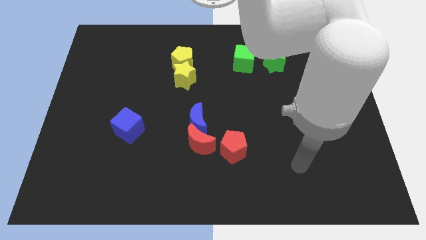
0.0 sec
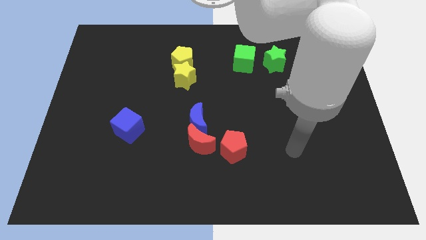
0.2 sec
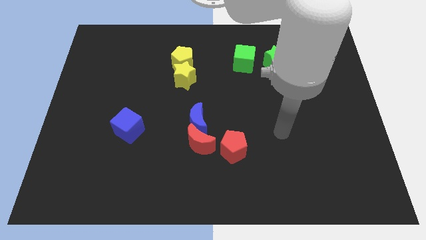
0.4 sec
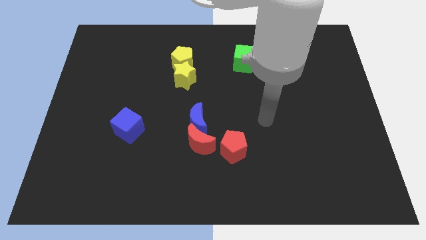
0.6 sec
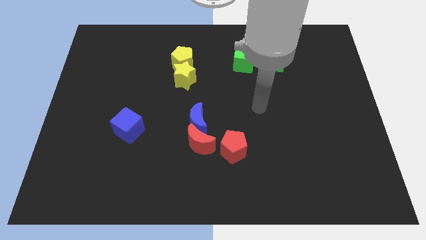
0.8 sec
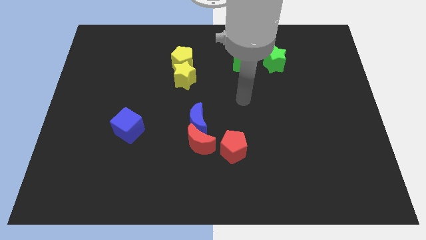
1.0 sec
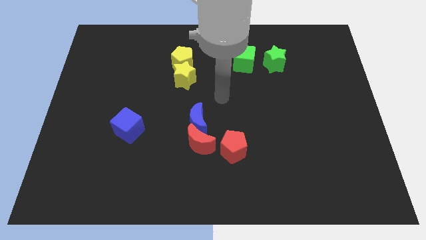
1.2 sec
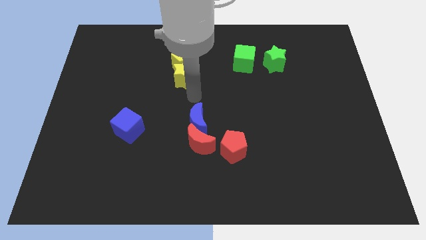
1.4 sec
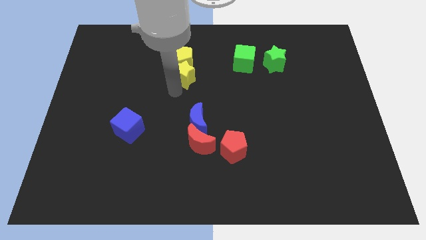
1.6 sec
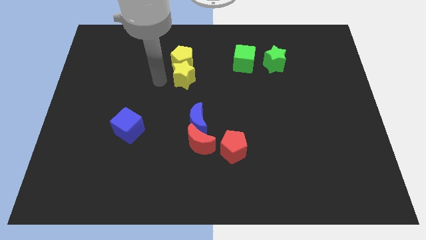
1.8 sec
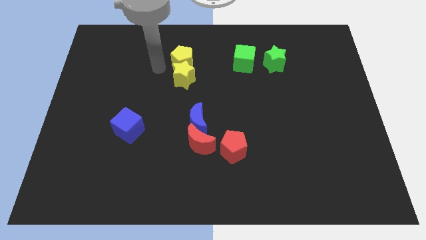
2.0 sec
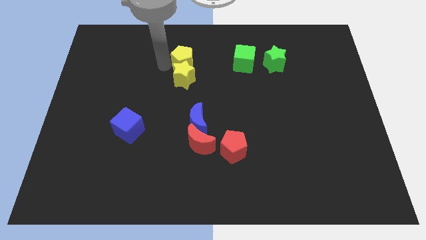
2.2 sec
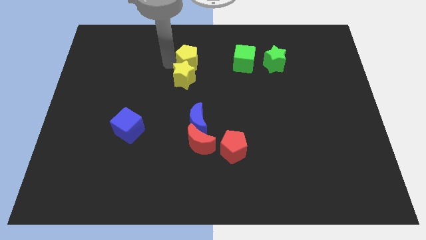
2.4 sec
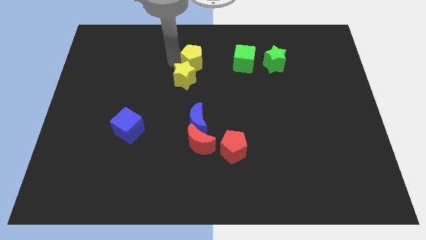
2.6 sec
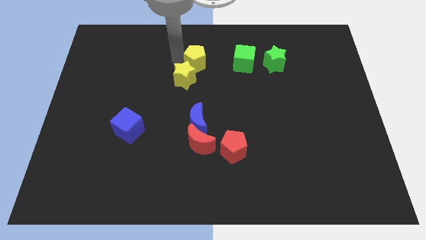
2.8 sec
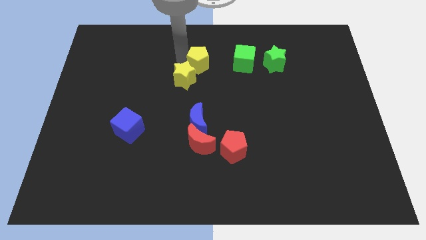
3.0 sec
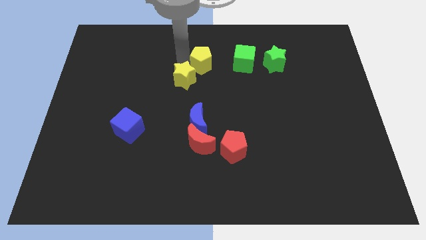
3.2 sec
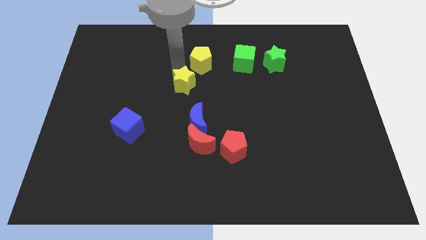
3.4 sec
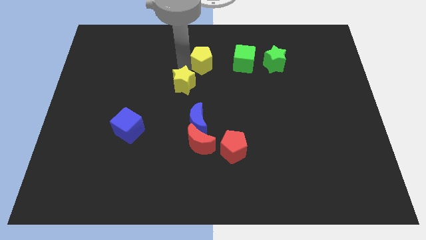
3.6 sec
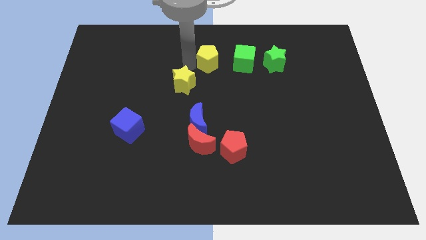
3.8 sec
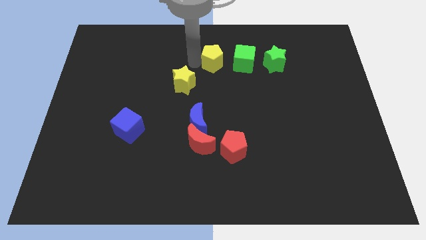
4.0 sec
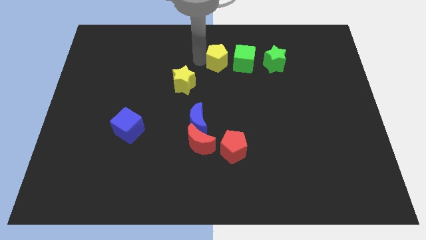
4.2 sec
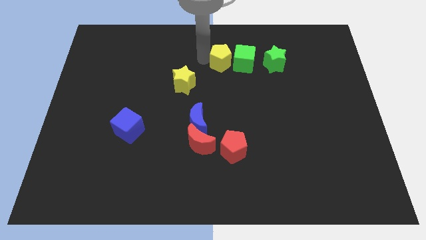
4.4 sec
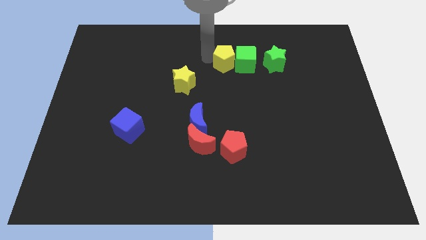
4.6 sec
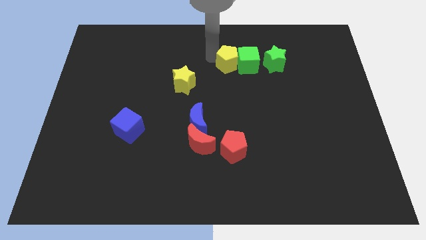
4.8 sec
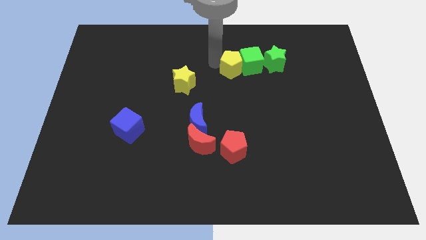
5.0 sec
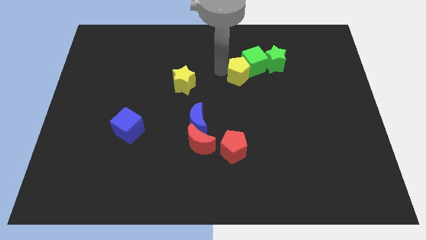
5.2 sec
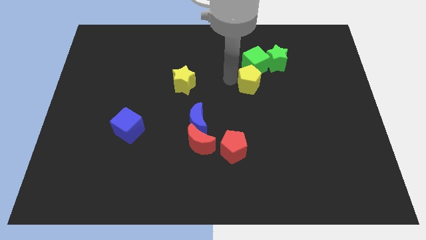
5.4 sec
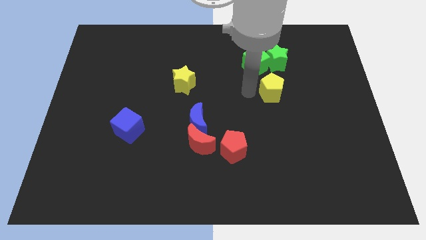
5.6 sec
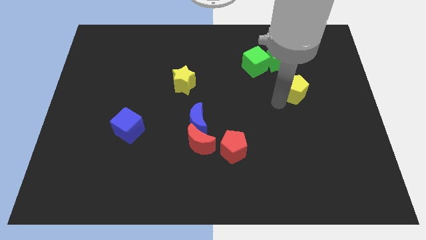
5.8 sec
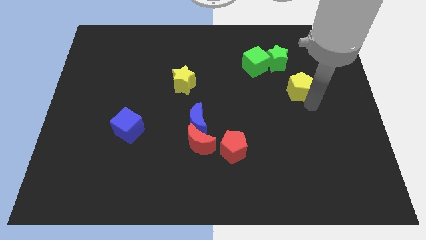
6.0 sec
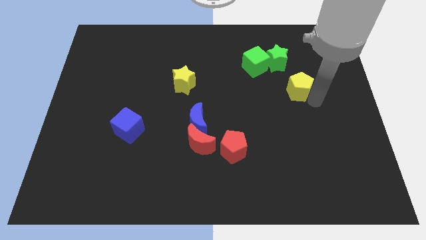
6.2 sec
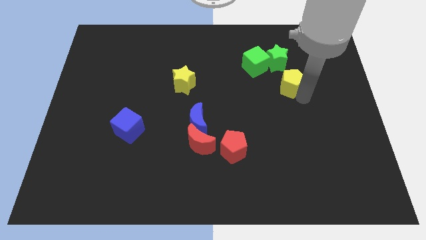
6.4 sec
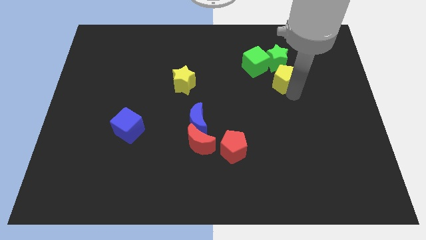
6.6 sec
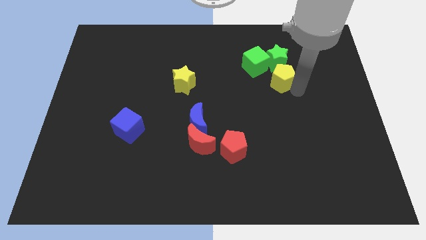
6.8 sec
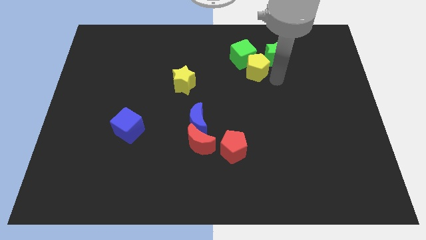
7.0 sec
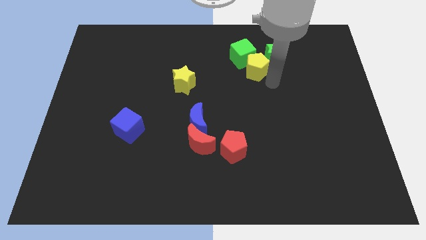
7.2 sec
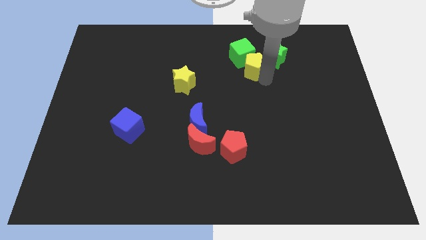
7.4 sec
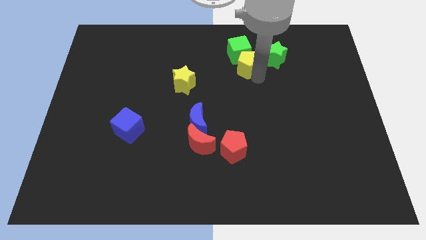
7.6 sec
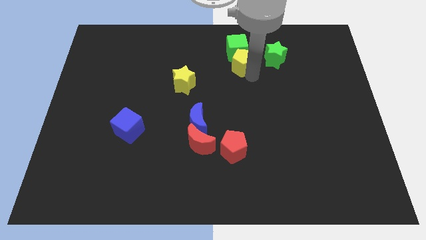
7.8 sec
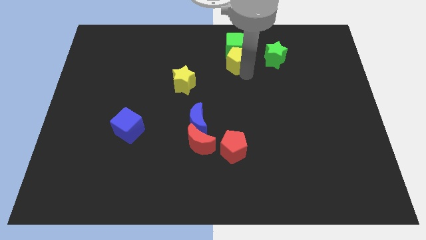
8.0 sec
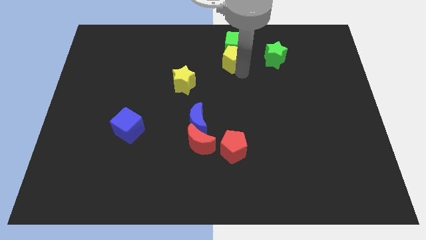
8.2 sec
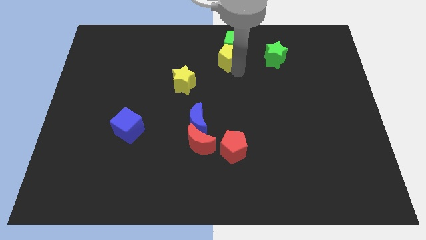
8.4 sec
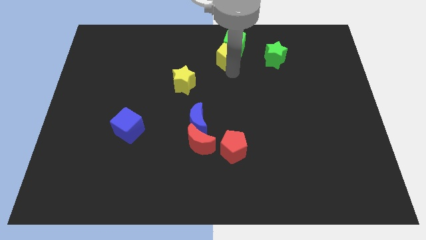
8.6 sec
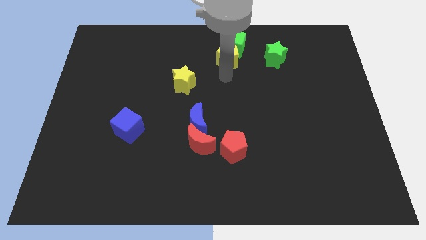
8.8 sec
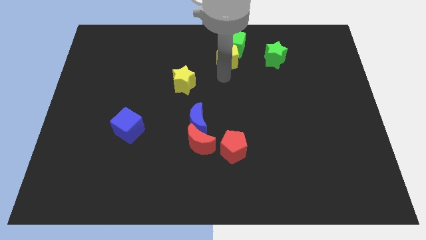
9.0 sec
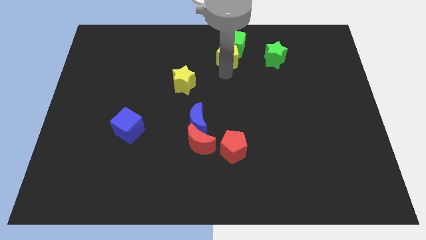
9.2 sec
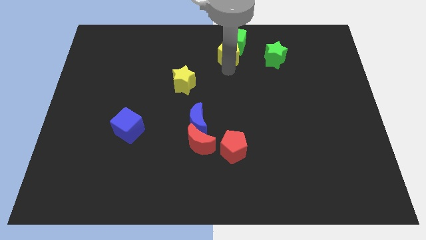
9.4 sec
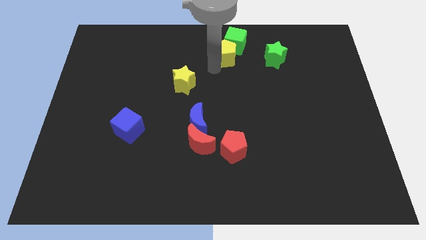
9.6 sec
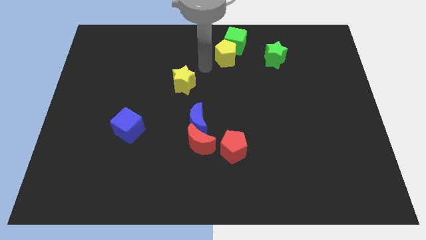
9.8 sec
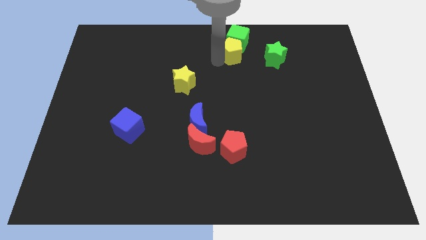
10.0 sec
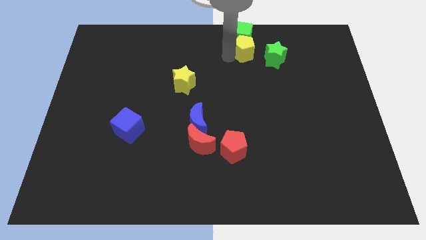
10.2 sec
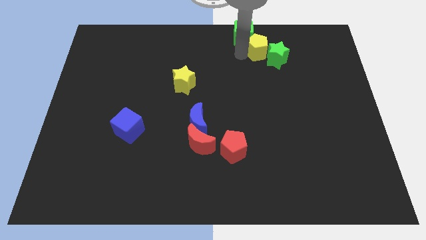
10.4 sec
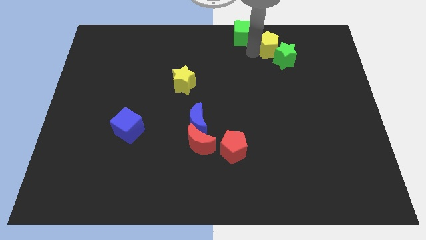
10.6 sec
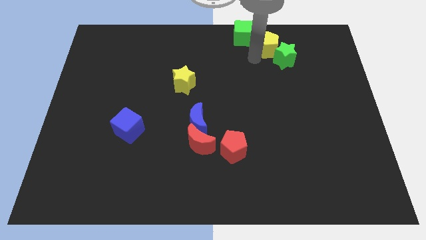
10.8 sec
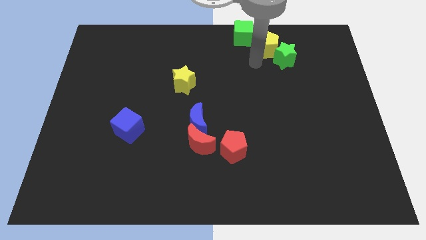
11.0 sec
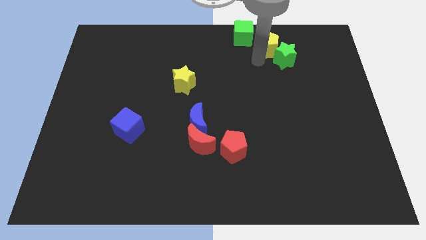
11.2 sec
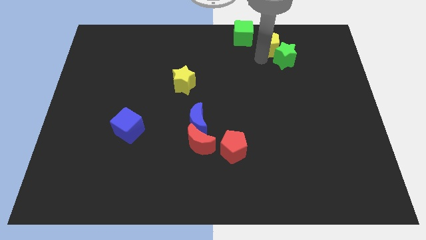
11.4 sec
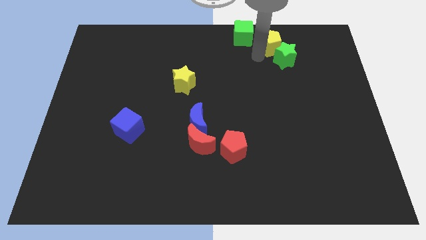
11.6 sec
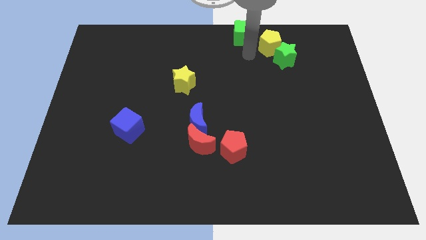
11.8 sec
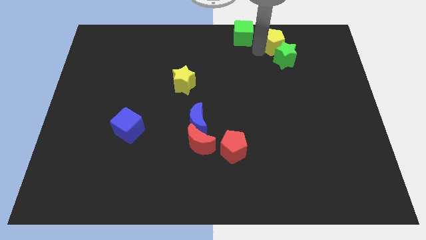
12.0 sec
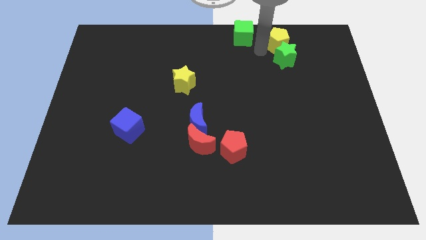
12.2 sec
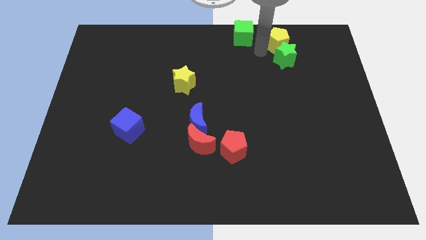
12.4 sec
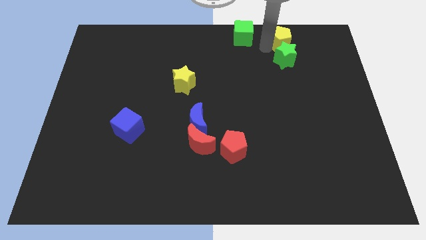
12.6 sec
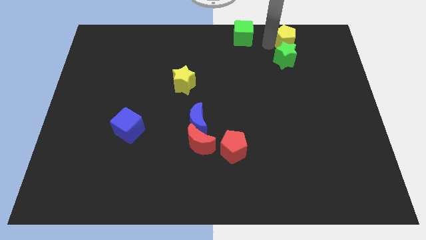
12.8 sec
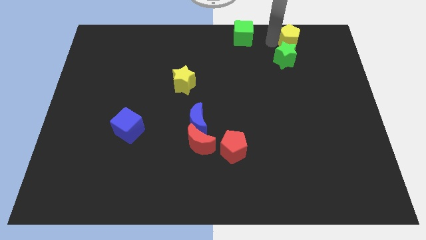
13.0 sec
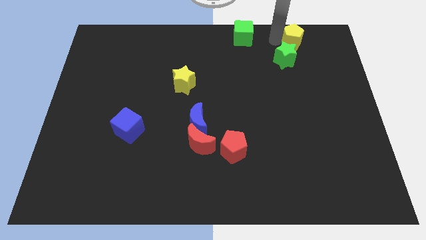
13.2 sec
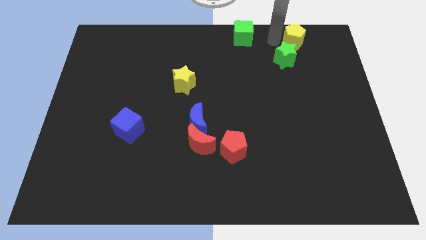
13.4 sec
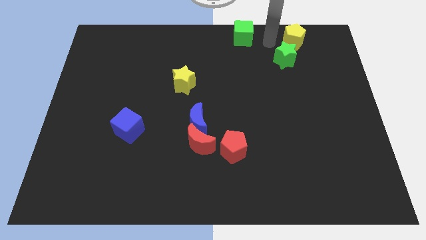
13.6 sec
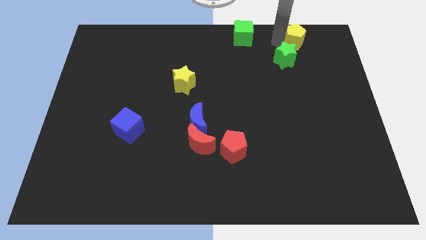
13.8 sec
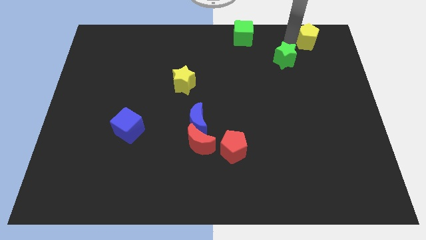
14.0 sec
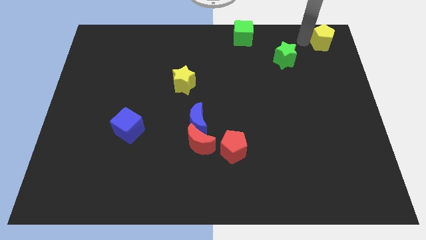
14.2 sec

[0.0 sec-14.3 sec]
push the yellow pentagon to the top right
